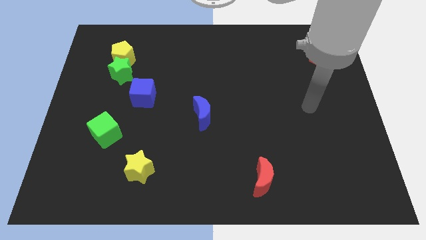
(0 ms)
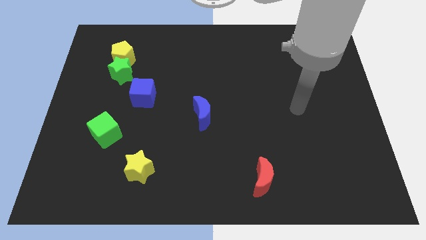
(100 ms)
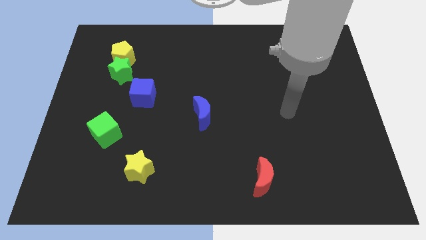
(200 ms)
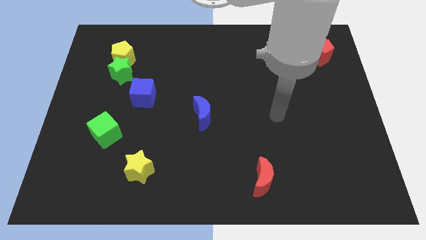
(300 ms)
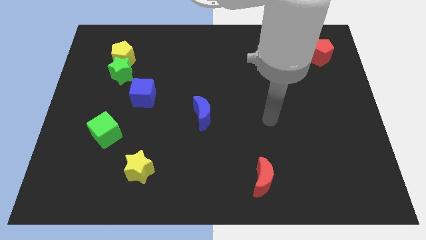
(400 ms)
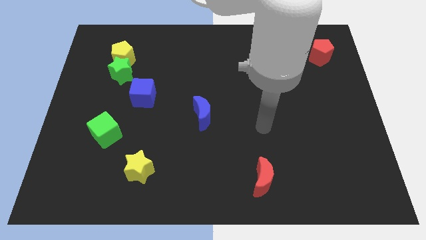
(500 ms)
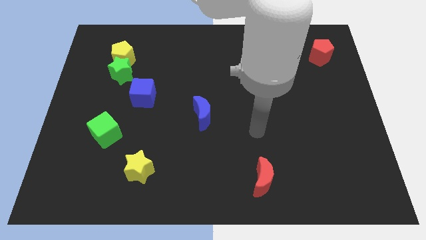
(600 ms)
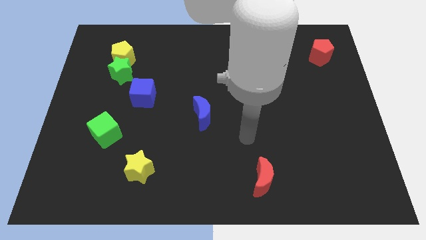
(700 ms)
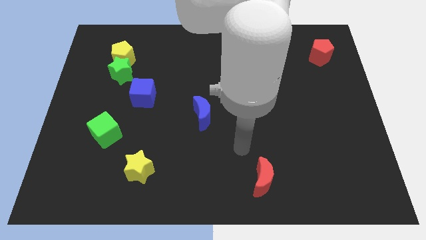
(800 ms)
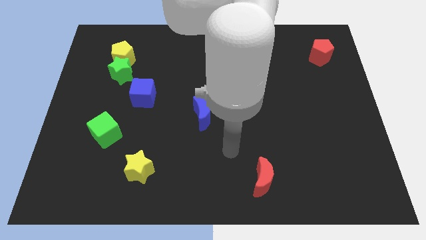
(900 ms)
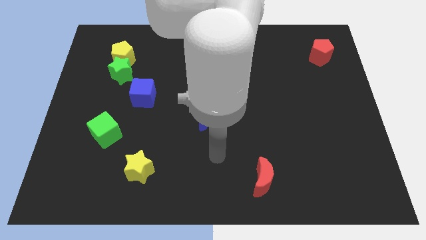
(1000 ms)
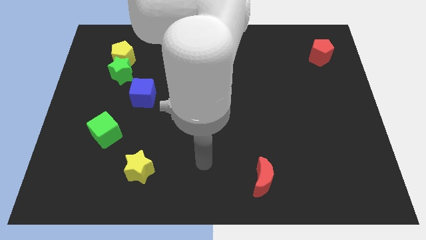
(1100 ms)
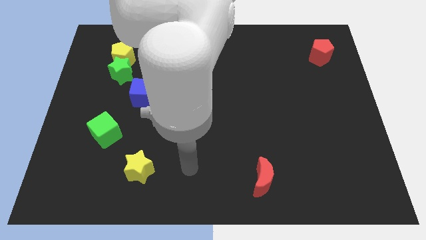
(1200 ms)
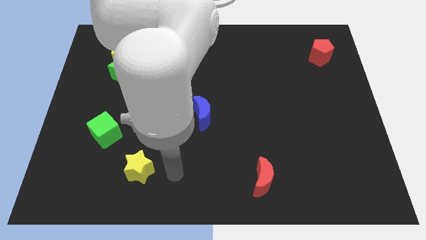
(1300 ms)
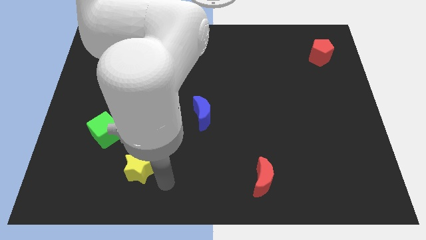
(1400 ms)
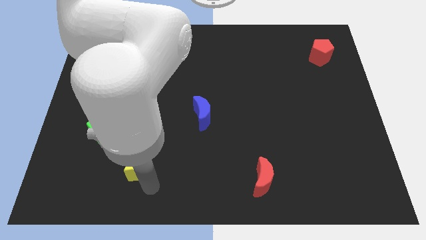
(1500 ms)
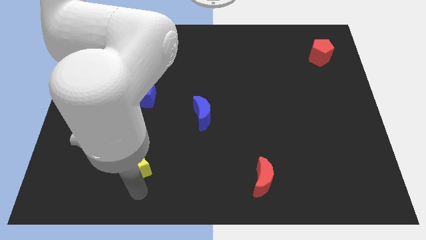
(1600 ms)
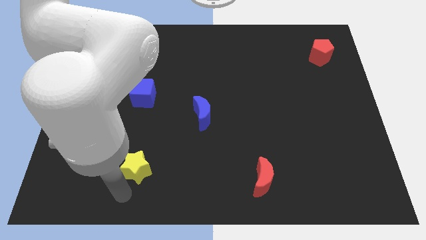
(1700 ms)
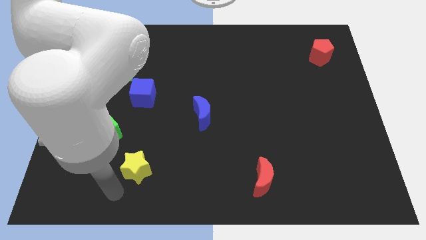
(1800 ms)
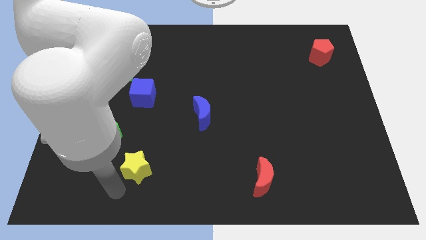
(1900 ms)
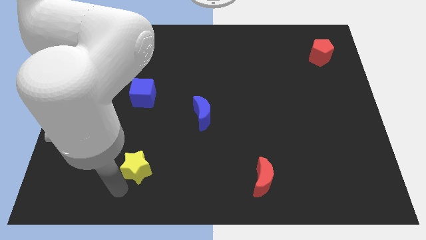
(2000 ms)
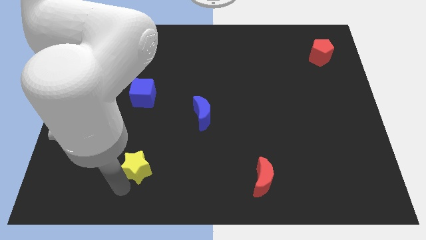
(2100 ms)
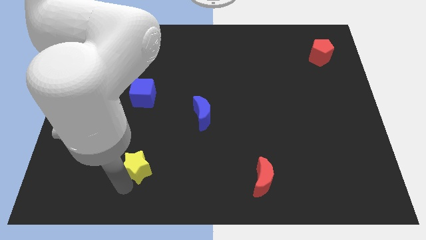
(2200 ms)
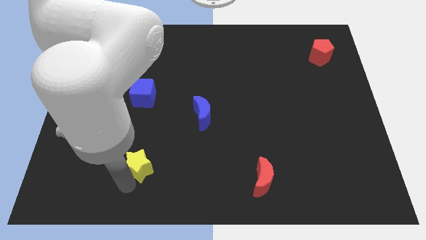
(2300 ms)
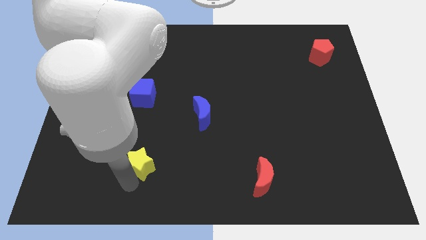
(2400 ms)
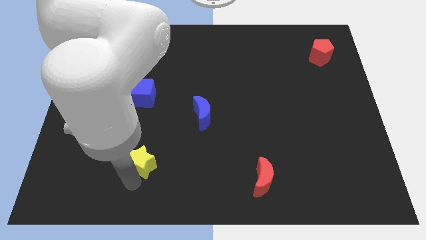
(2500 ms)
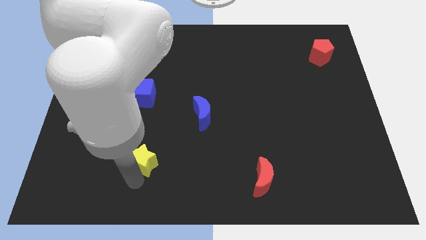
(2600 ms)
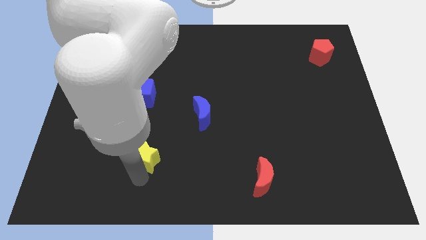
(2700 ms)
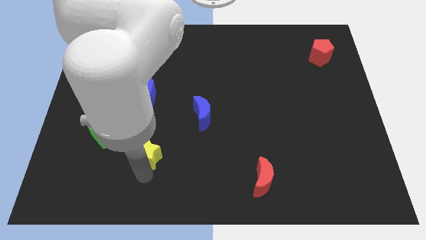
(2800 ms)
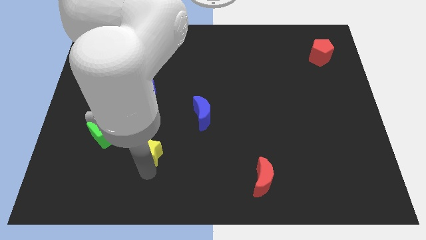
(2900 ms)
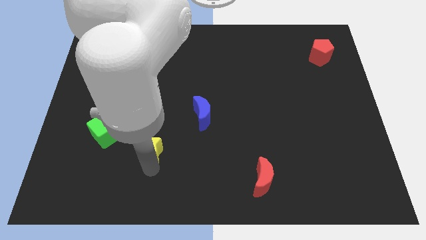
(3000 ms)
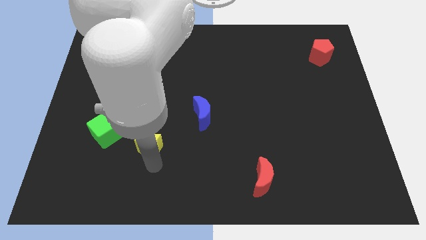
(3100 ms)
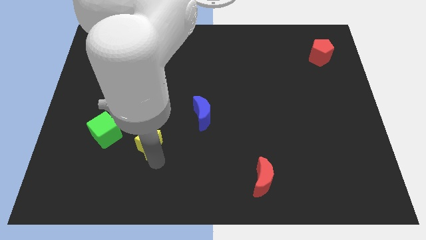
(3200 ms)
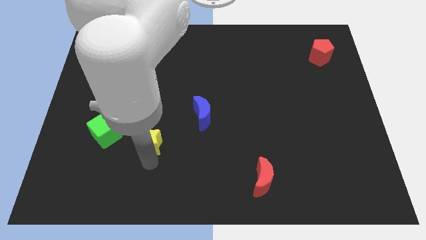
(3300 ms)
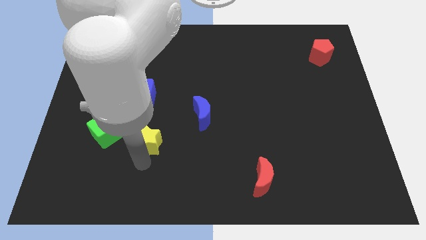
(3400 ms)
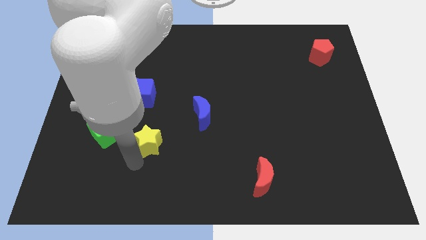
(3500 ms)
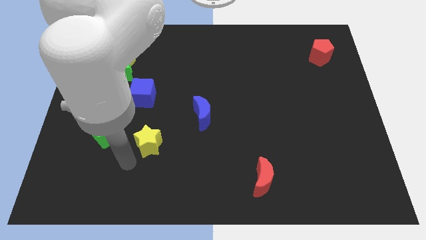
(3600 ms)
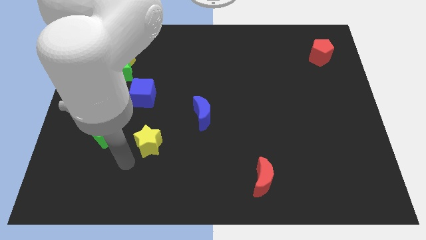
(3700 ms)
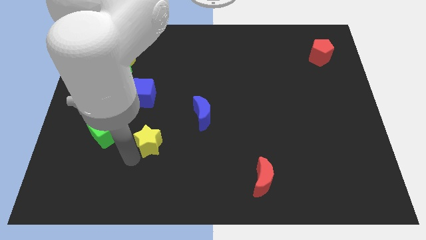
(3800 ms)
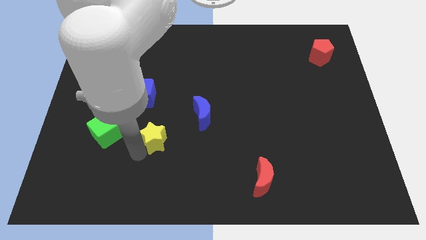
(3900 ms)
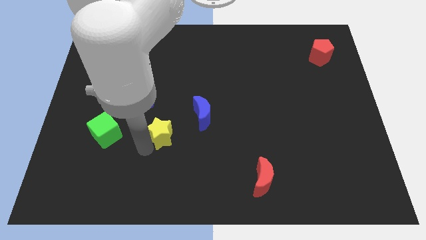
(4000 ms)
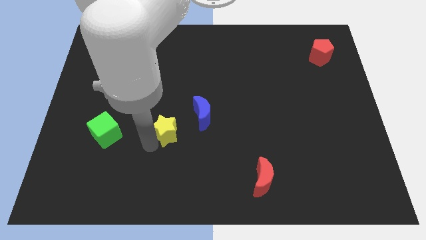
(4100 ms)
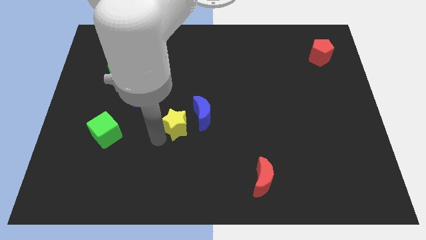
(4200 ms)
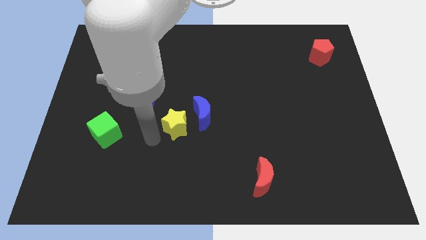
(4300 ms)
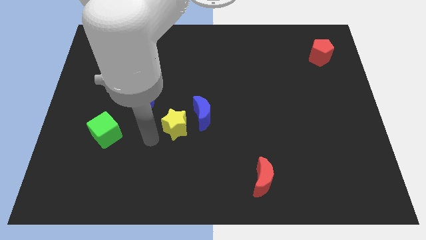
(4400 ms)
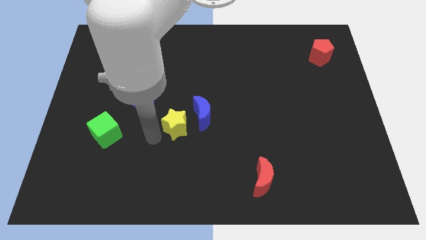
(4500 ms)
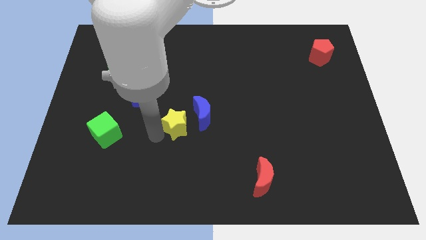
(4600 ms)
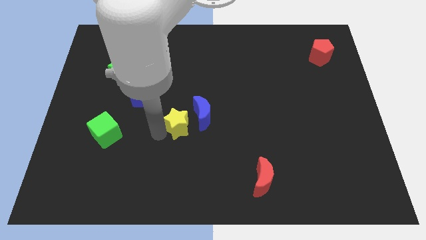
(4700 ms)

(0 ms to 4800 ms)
slide the yellow star to the blue moon

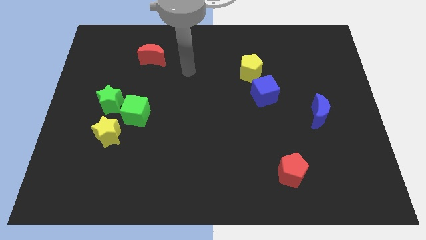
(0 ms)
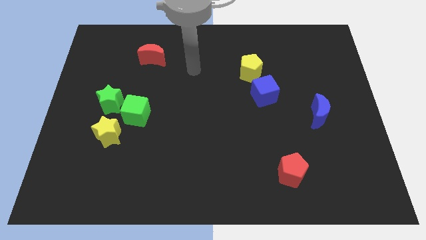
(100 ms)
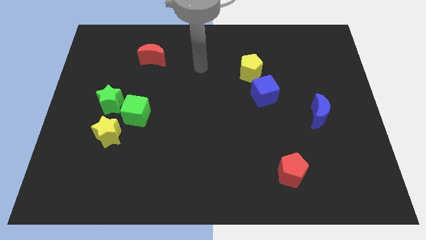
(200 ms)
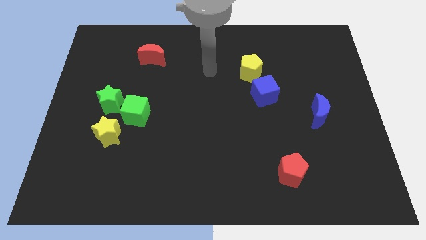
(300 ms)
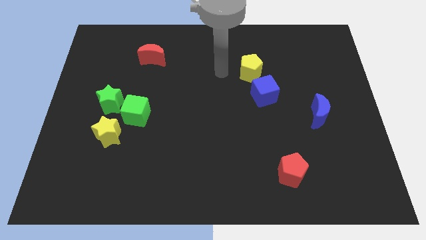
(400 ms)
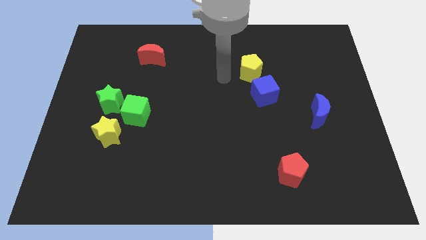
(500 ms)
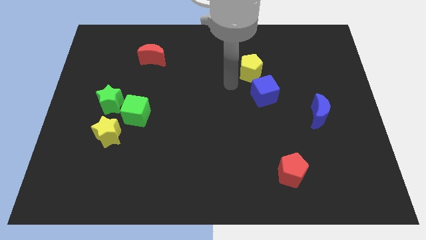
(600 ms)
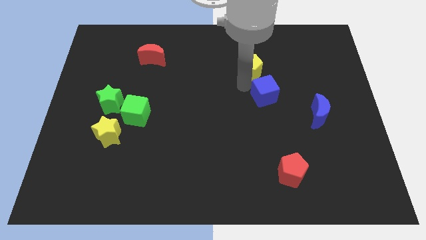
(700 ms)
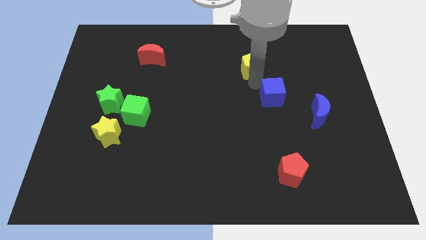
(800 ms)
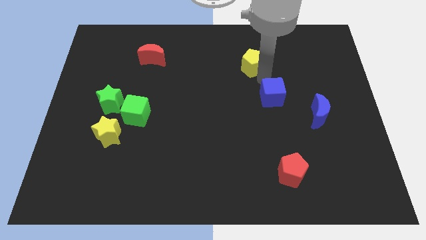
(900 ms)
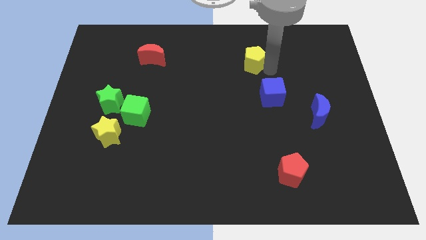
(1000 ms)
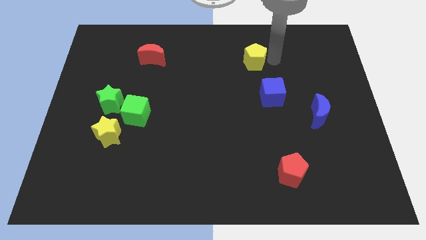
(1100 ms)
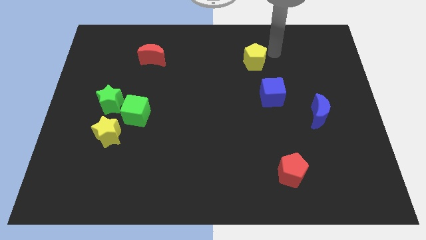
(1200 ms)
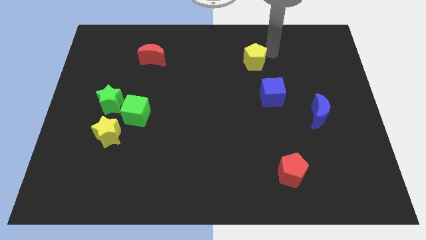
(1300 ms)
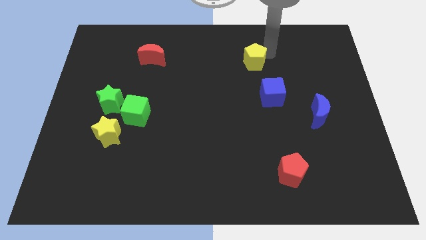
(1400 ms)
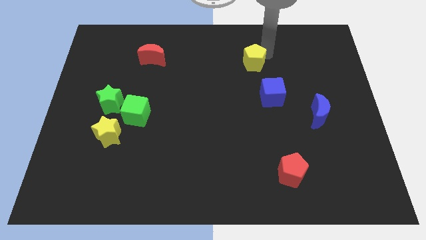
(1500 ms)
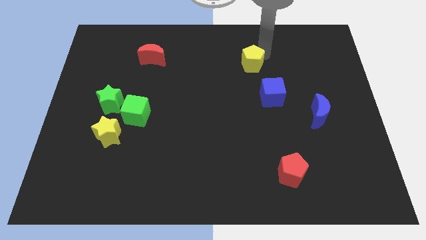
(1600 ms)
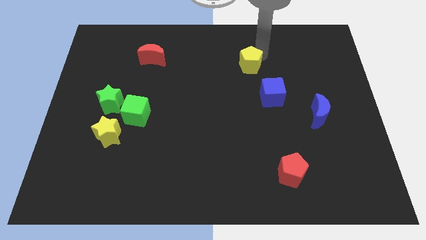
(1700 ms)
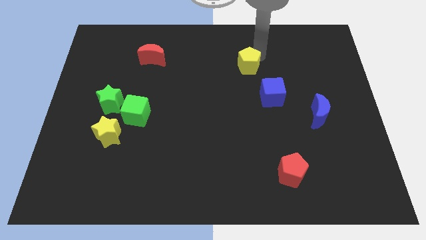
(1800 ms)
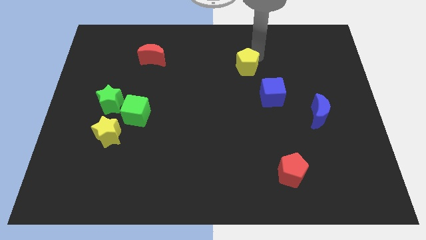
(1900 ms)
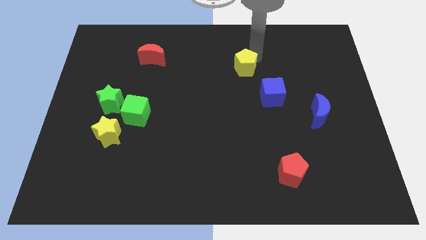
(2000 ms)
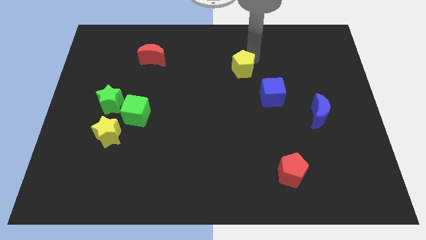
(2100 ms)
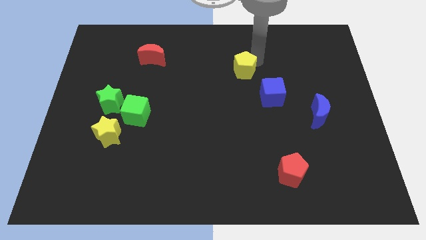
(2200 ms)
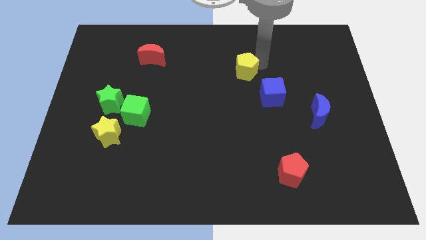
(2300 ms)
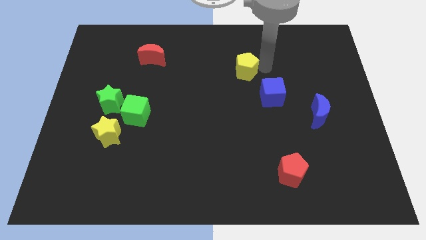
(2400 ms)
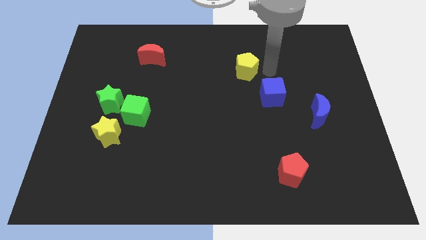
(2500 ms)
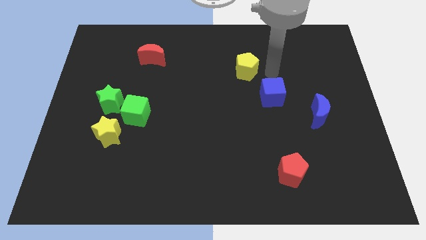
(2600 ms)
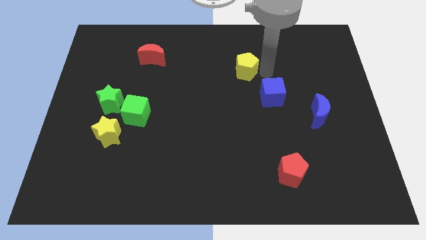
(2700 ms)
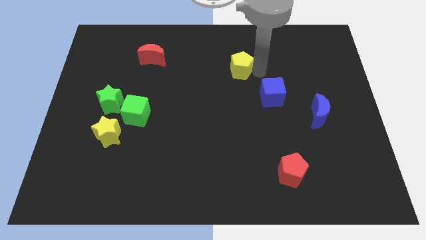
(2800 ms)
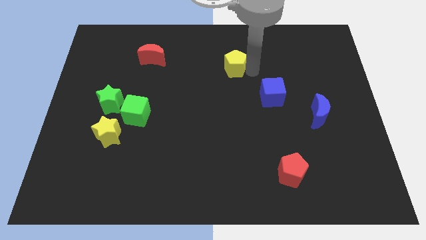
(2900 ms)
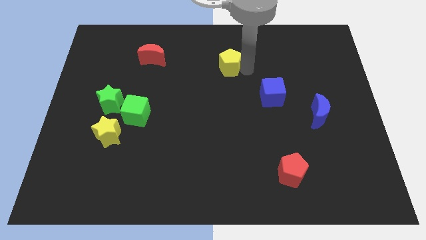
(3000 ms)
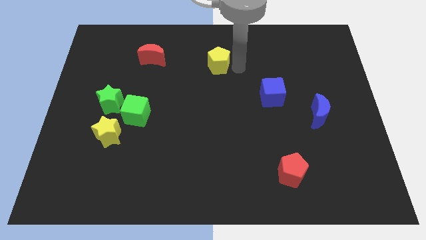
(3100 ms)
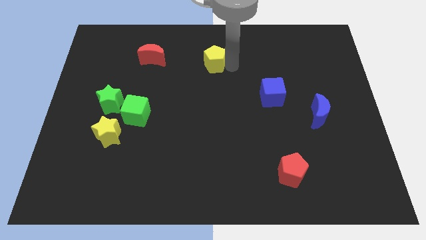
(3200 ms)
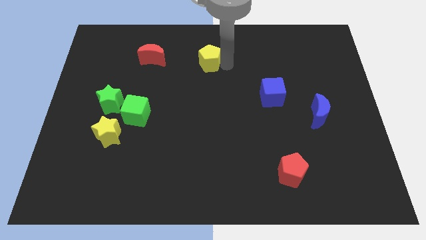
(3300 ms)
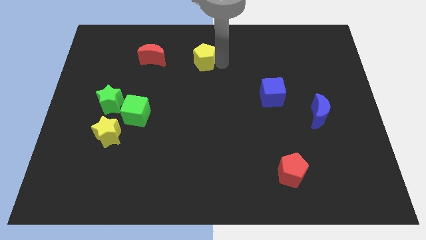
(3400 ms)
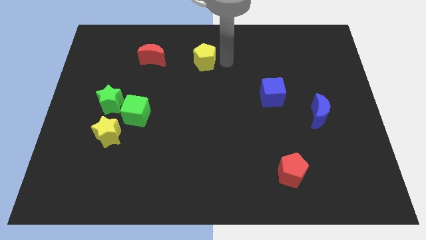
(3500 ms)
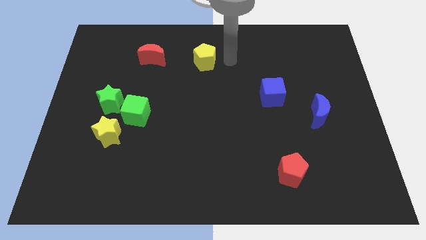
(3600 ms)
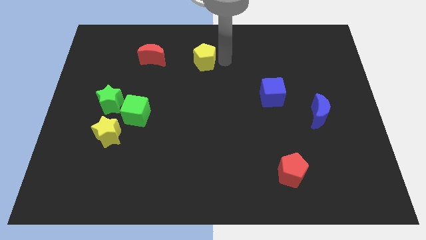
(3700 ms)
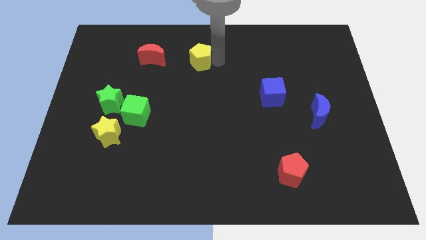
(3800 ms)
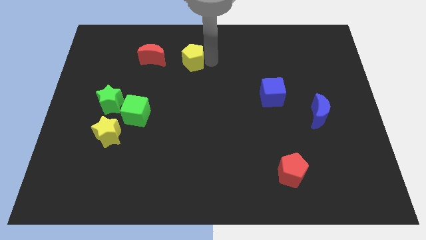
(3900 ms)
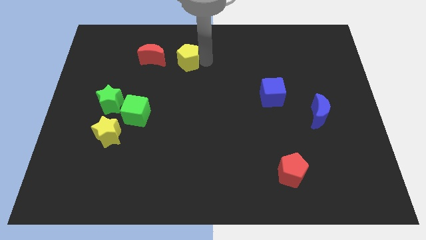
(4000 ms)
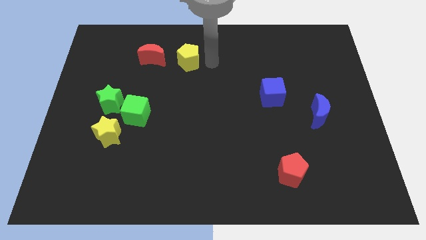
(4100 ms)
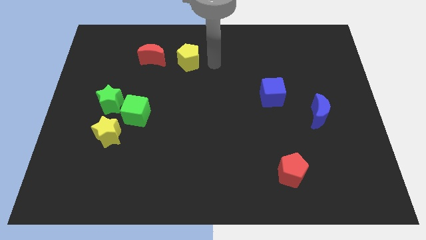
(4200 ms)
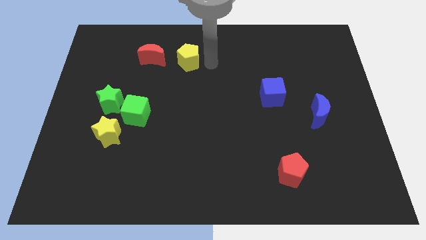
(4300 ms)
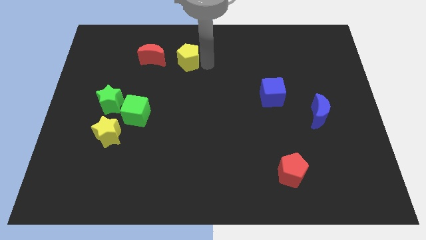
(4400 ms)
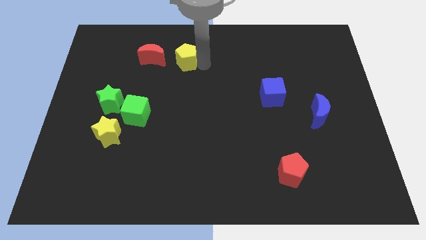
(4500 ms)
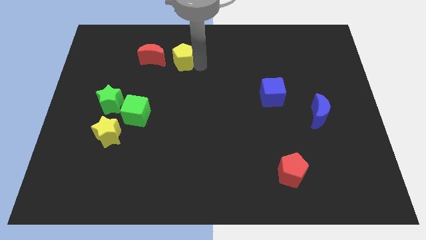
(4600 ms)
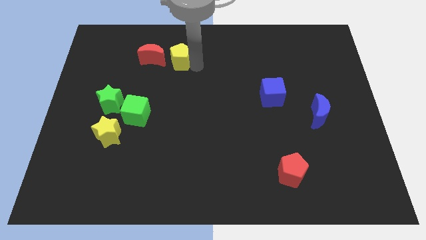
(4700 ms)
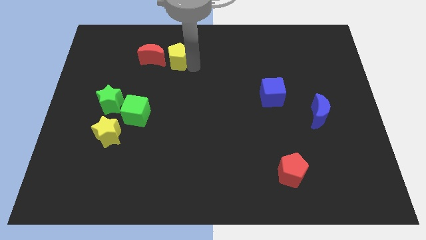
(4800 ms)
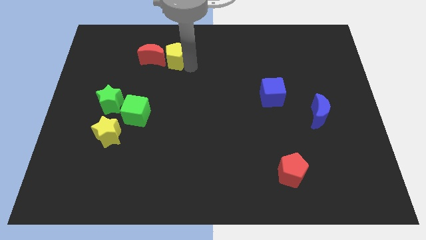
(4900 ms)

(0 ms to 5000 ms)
move the yellow pentagon next to the red moon
